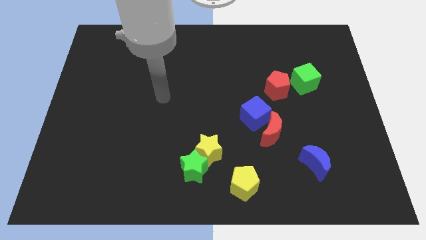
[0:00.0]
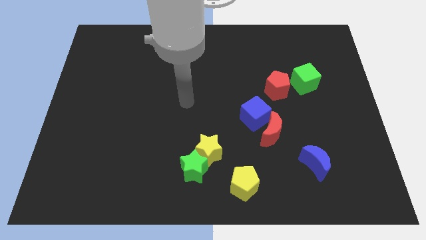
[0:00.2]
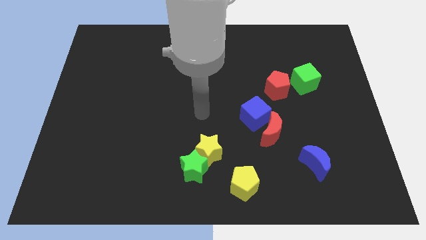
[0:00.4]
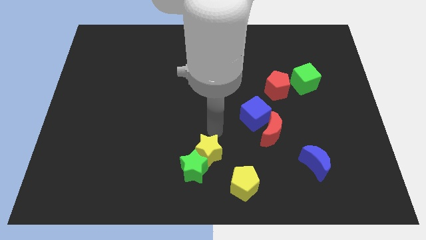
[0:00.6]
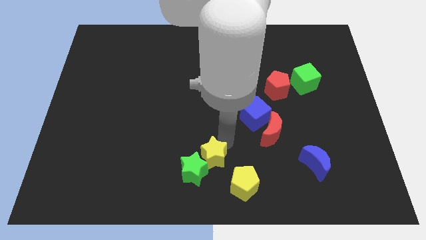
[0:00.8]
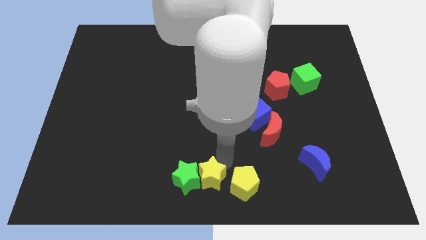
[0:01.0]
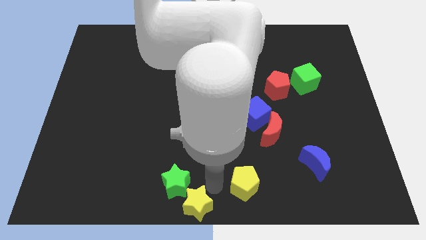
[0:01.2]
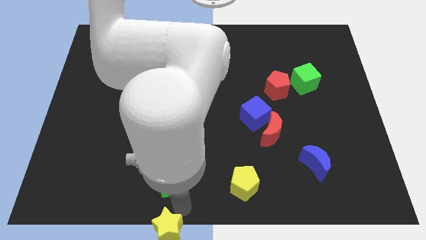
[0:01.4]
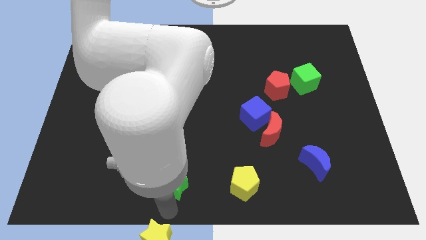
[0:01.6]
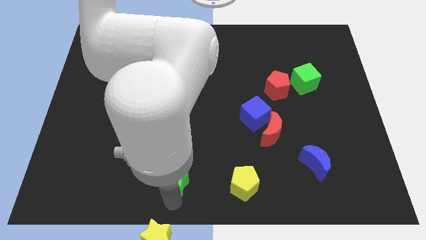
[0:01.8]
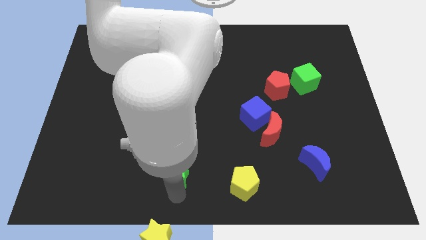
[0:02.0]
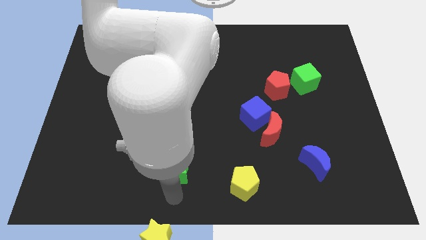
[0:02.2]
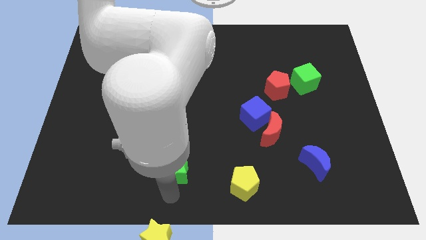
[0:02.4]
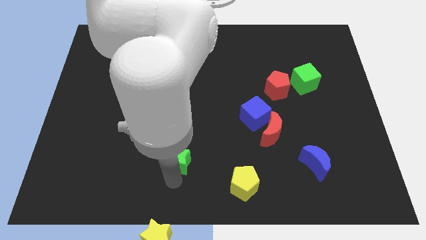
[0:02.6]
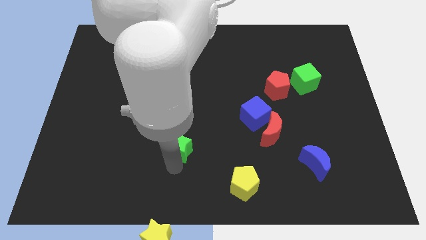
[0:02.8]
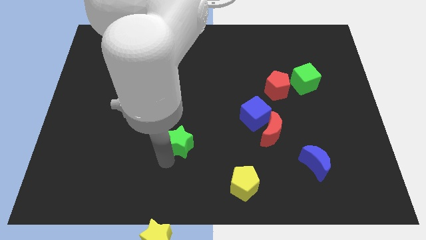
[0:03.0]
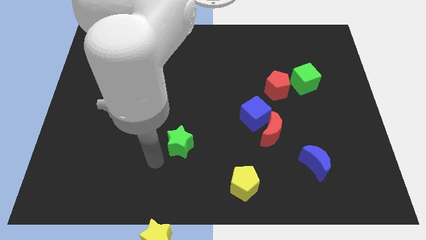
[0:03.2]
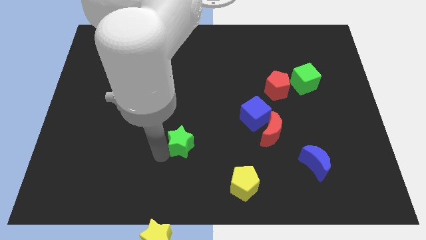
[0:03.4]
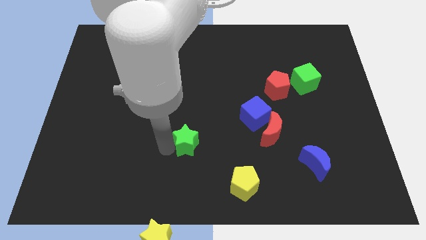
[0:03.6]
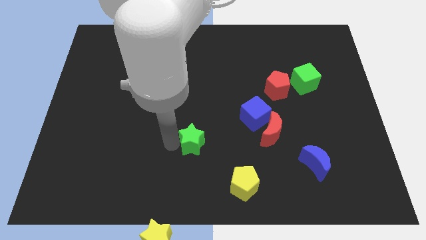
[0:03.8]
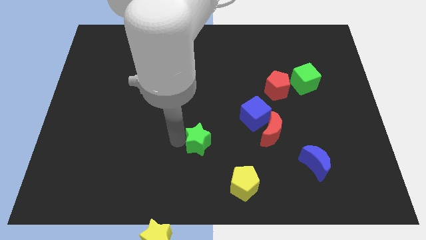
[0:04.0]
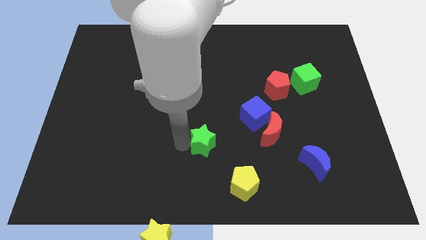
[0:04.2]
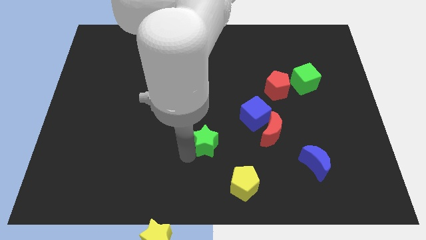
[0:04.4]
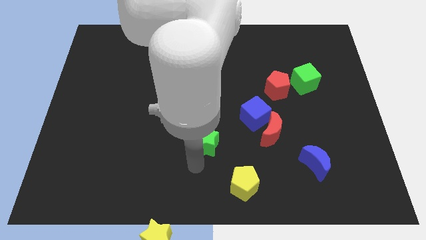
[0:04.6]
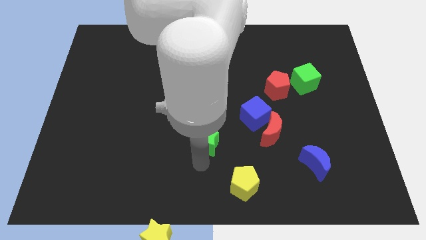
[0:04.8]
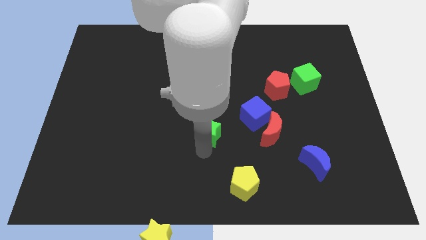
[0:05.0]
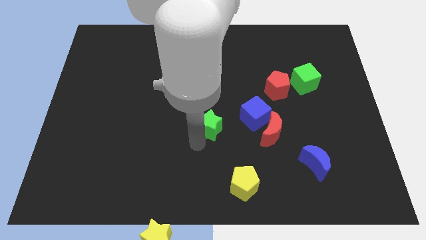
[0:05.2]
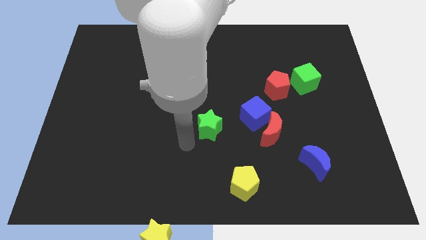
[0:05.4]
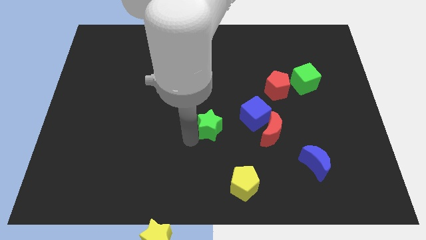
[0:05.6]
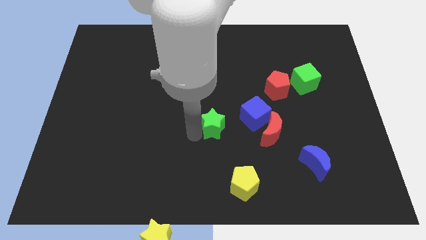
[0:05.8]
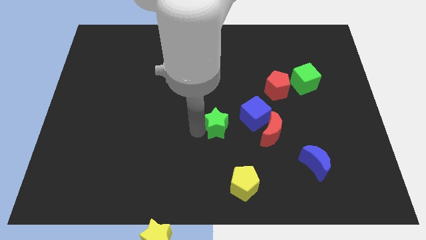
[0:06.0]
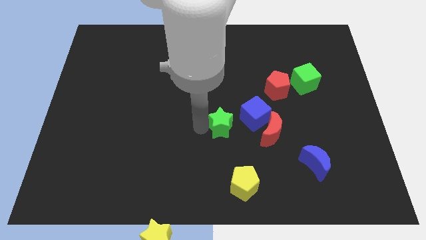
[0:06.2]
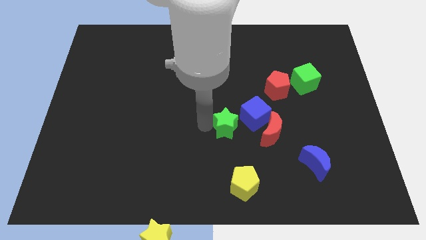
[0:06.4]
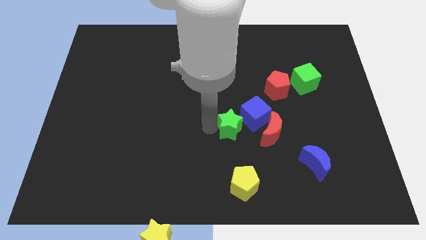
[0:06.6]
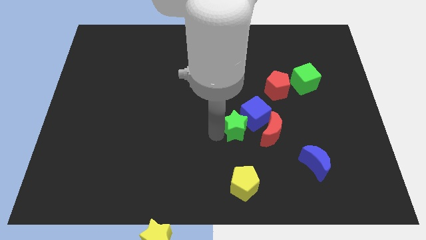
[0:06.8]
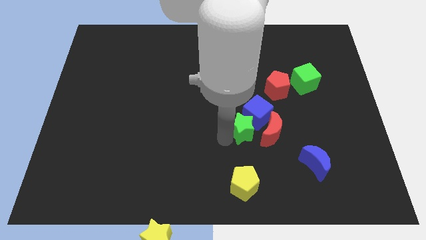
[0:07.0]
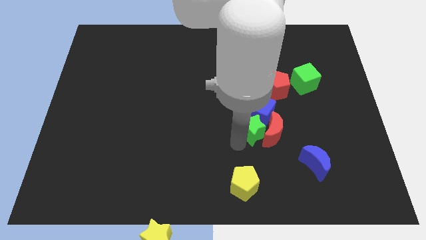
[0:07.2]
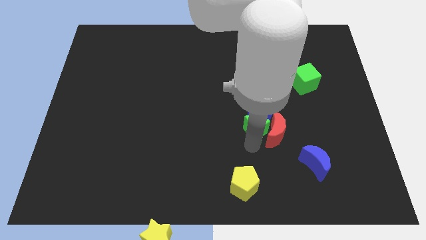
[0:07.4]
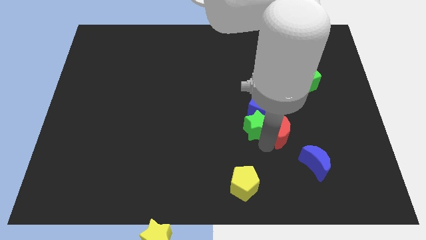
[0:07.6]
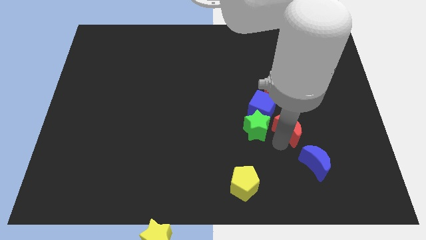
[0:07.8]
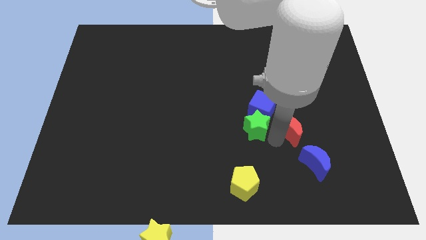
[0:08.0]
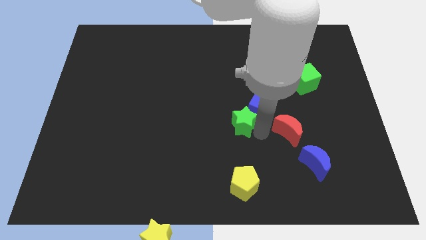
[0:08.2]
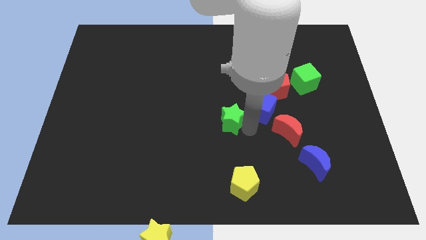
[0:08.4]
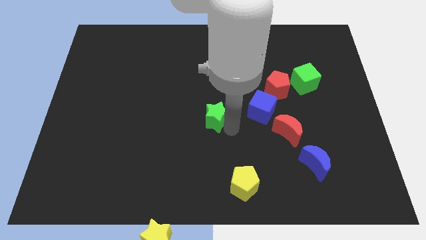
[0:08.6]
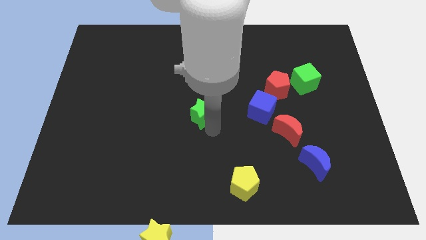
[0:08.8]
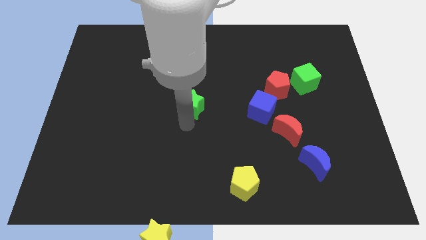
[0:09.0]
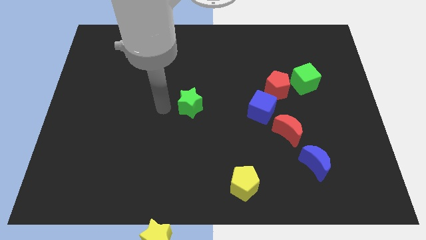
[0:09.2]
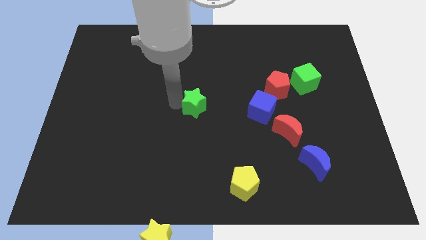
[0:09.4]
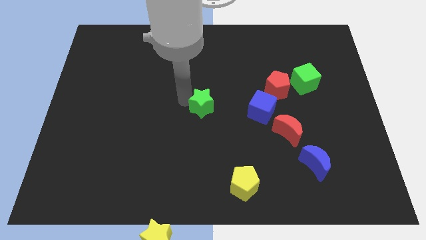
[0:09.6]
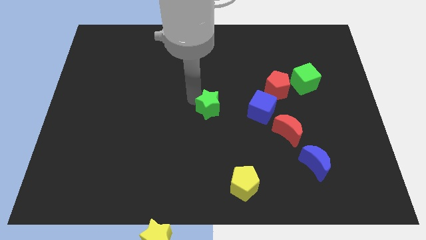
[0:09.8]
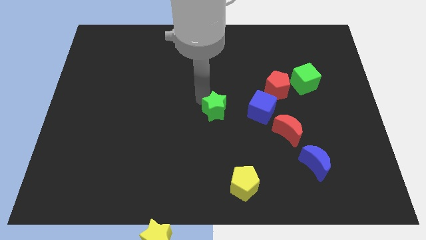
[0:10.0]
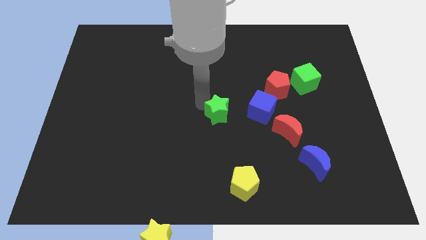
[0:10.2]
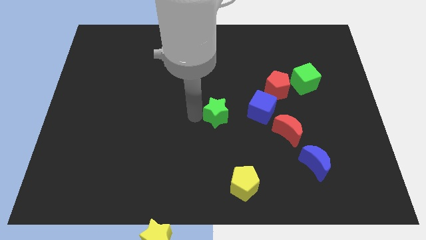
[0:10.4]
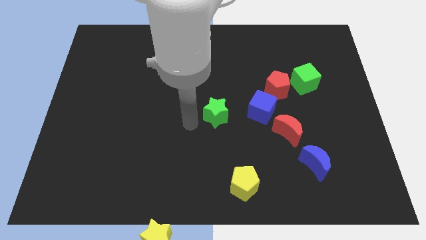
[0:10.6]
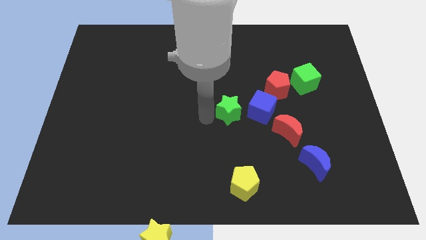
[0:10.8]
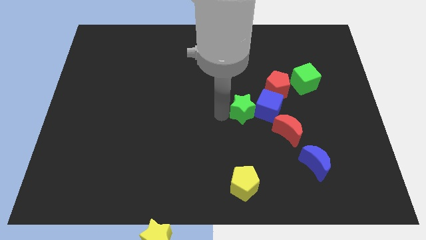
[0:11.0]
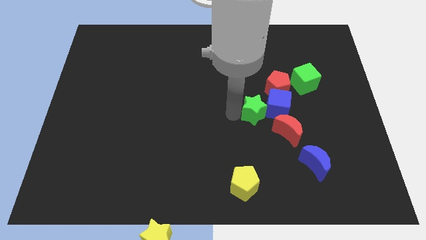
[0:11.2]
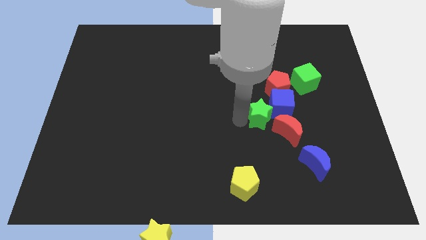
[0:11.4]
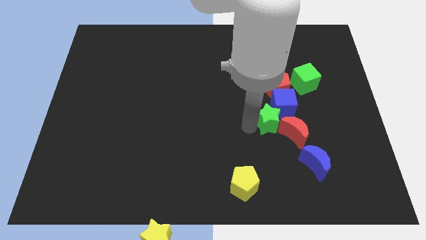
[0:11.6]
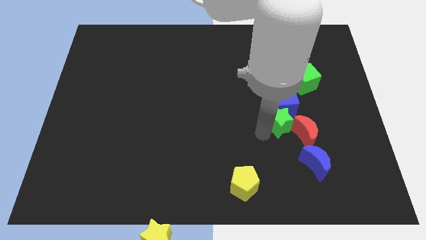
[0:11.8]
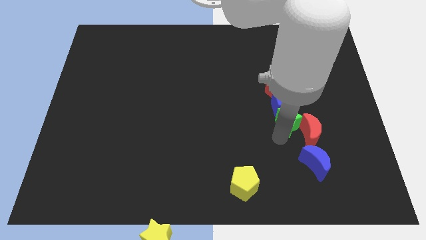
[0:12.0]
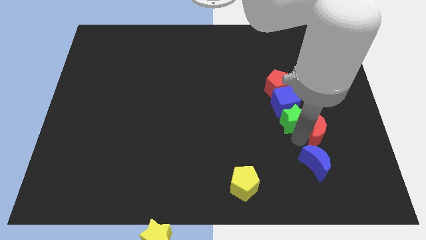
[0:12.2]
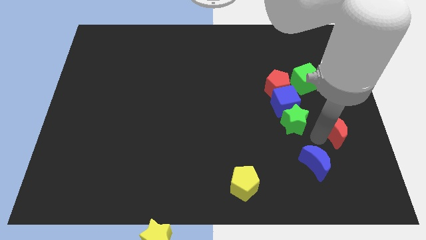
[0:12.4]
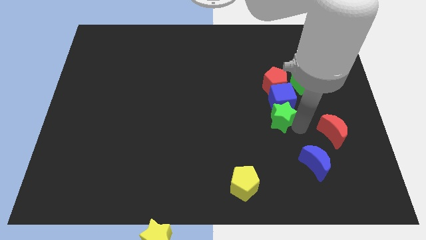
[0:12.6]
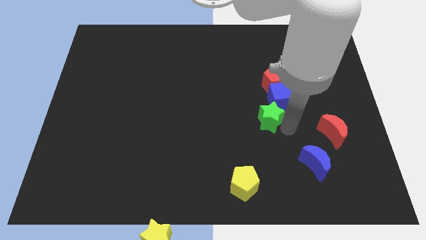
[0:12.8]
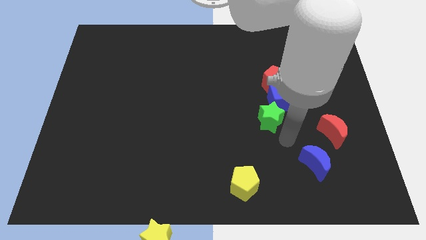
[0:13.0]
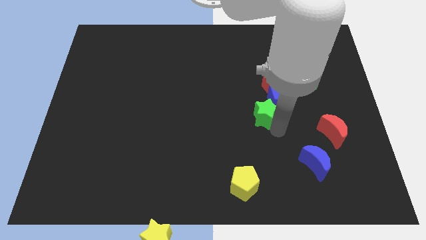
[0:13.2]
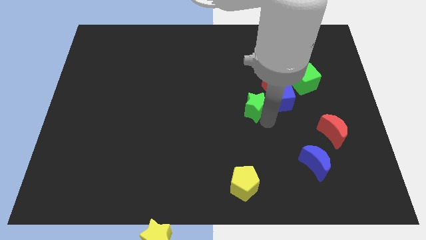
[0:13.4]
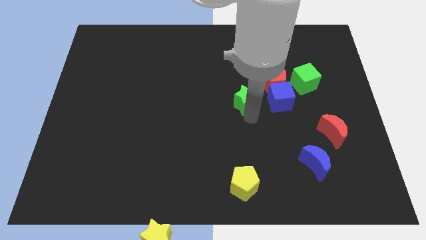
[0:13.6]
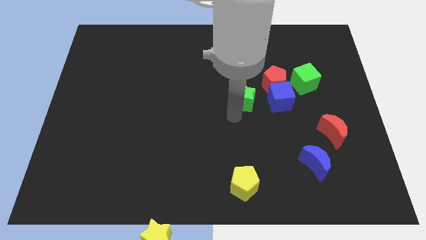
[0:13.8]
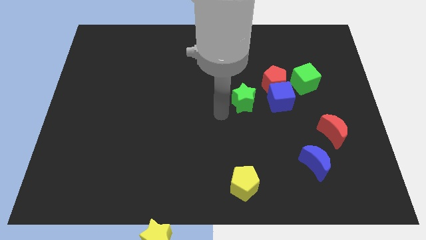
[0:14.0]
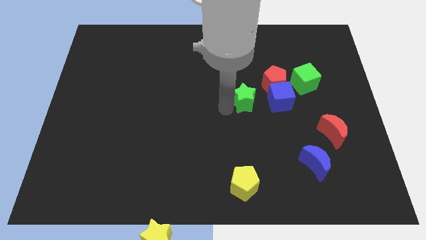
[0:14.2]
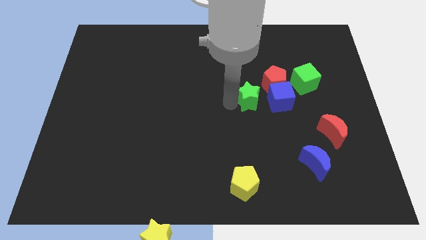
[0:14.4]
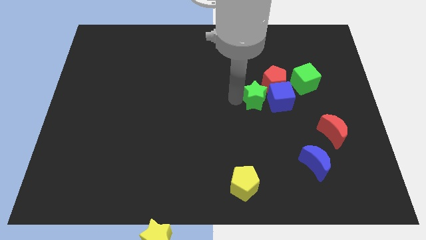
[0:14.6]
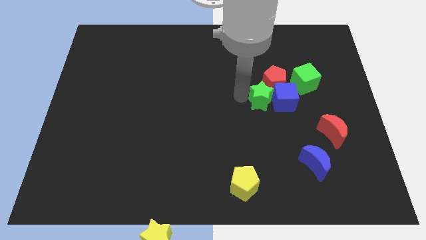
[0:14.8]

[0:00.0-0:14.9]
push the green star towards the red pentagon
